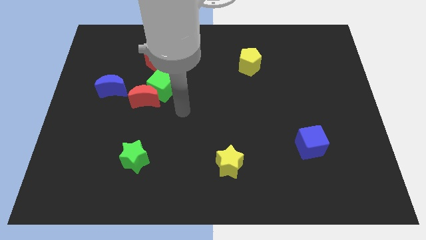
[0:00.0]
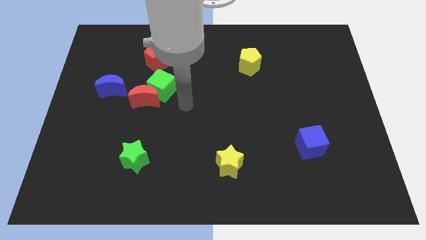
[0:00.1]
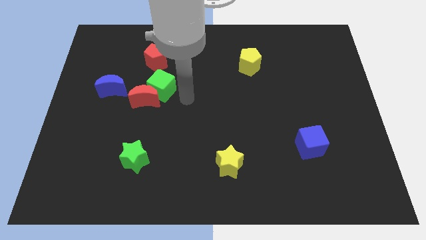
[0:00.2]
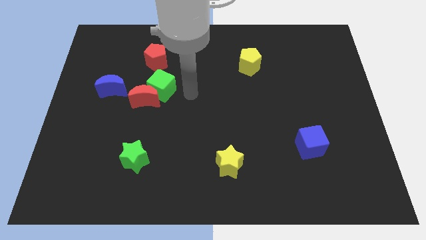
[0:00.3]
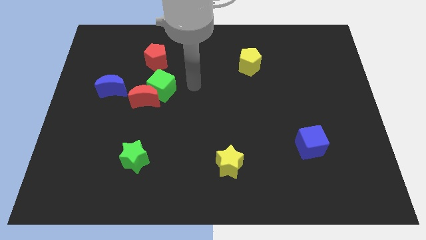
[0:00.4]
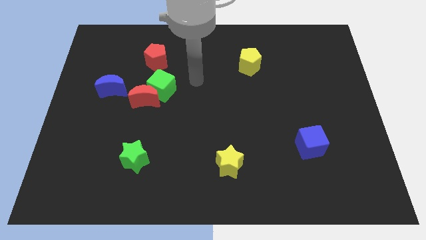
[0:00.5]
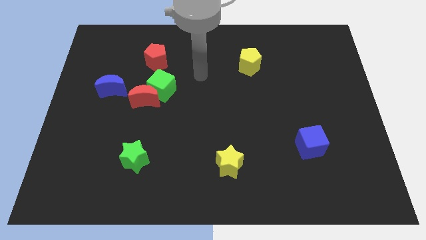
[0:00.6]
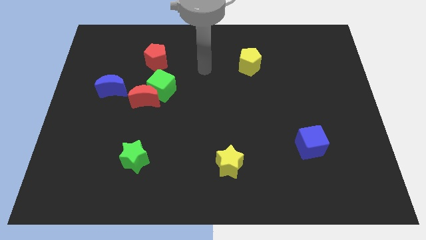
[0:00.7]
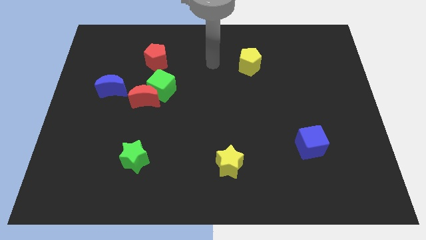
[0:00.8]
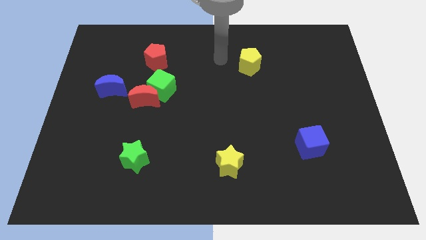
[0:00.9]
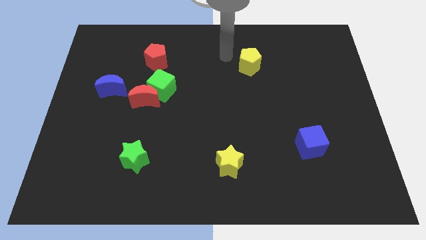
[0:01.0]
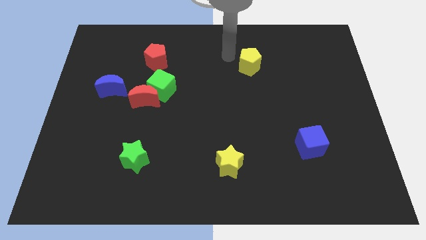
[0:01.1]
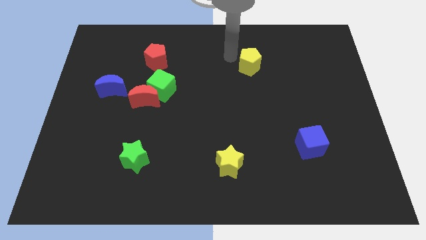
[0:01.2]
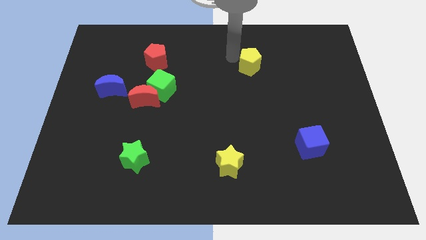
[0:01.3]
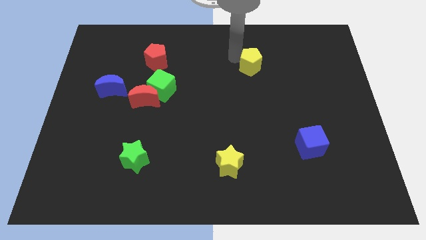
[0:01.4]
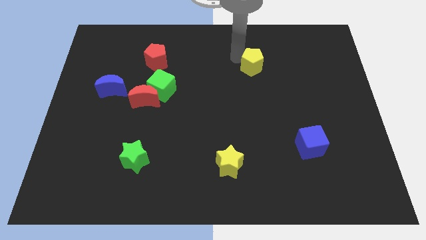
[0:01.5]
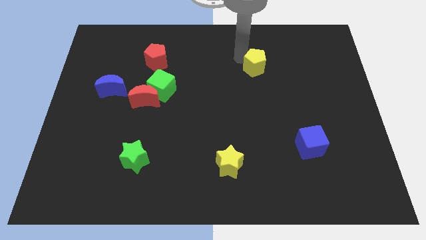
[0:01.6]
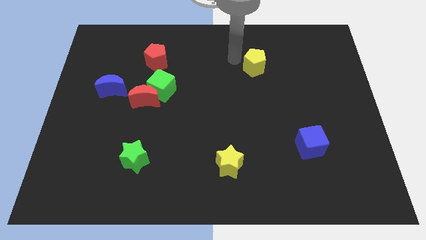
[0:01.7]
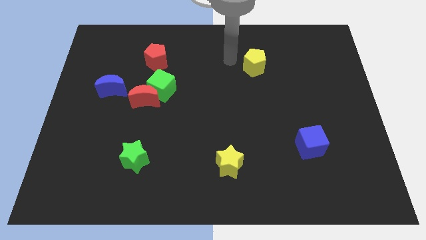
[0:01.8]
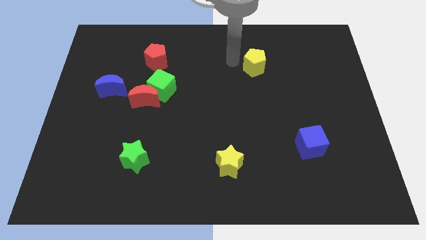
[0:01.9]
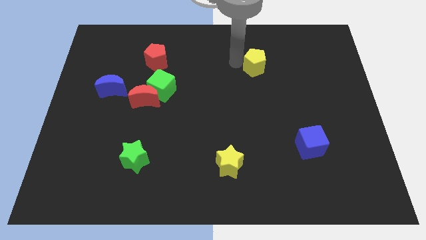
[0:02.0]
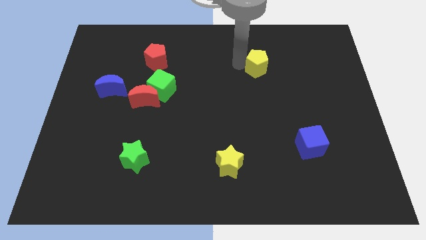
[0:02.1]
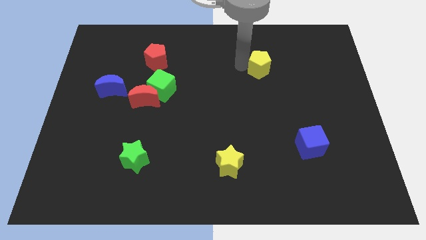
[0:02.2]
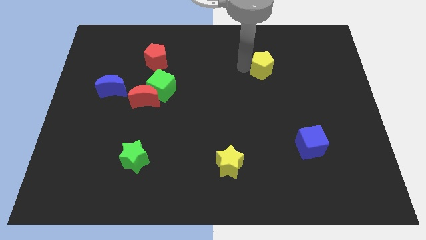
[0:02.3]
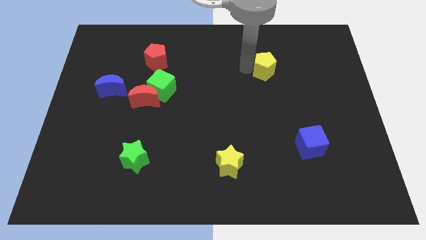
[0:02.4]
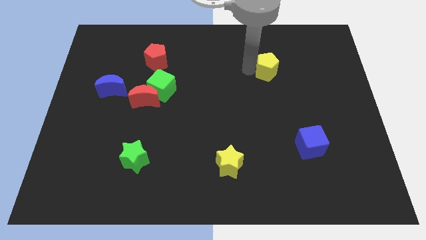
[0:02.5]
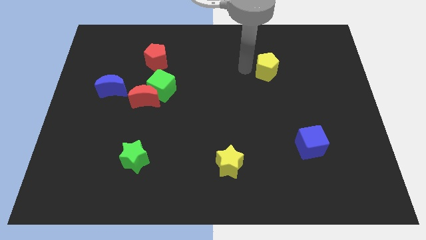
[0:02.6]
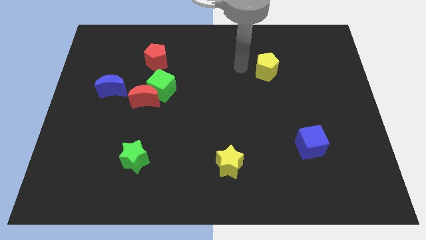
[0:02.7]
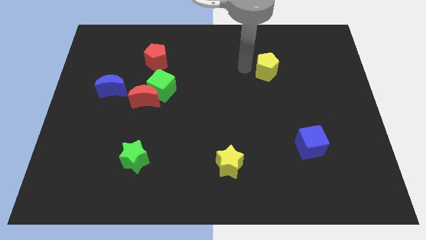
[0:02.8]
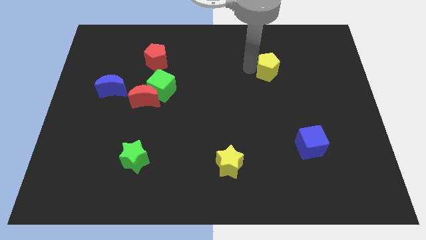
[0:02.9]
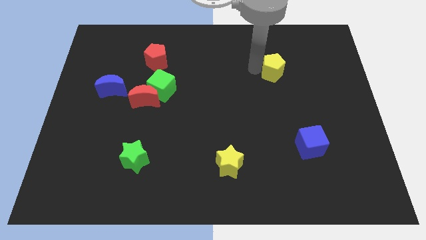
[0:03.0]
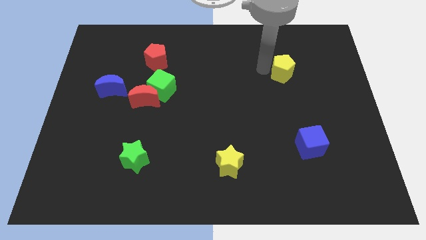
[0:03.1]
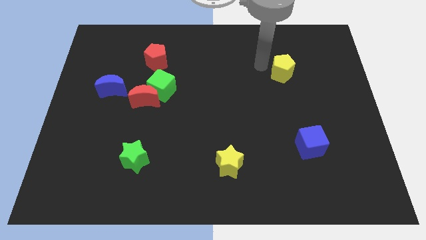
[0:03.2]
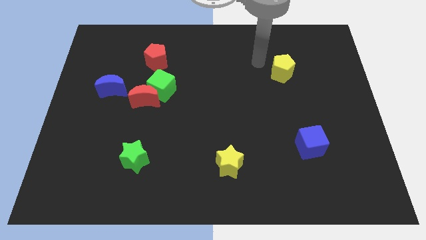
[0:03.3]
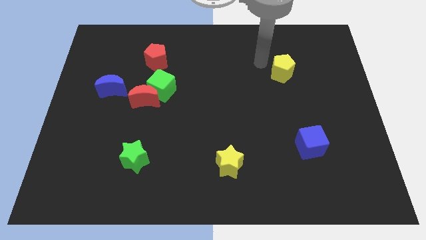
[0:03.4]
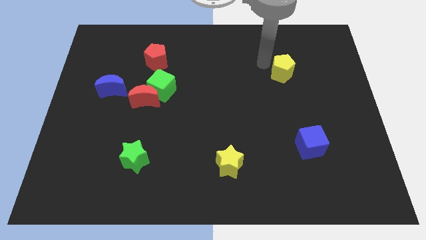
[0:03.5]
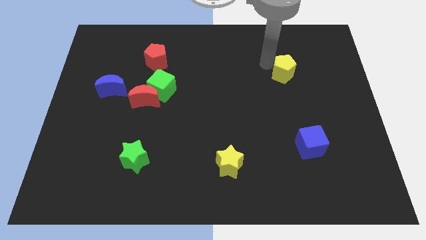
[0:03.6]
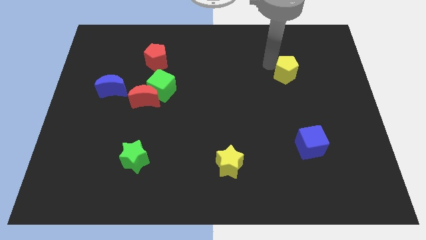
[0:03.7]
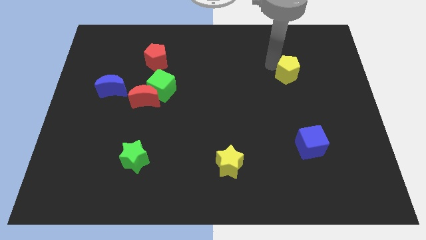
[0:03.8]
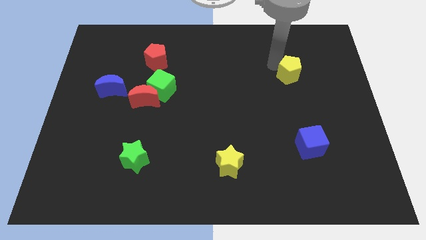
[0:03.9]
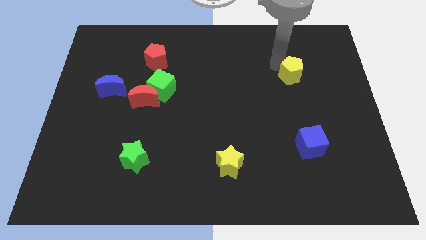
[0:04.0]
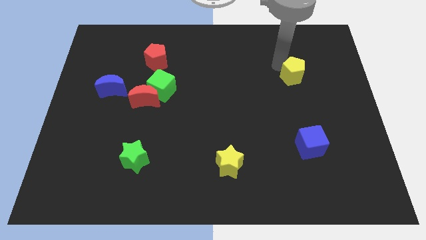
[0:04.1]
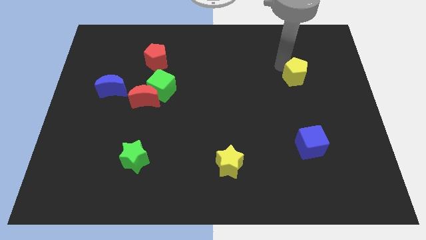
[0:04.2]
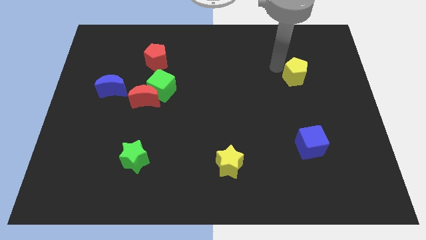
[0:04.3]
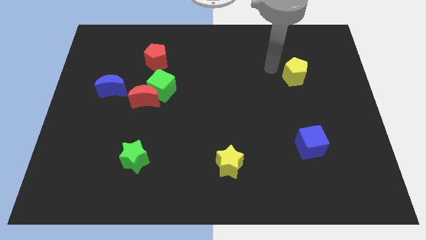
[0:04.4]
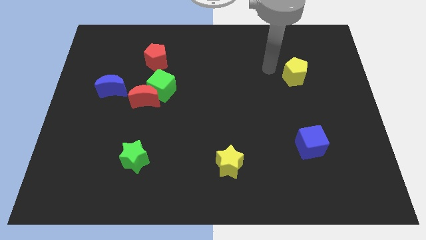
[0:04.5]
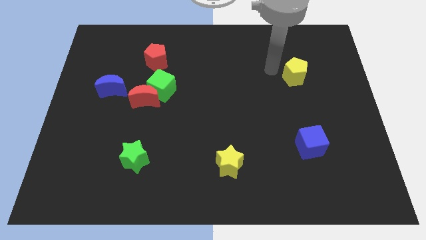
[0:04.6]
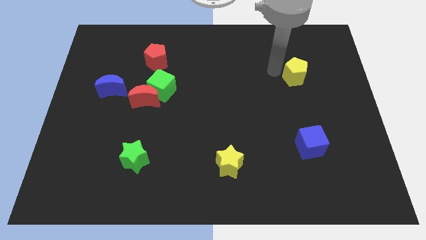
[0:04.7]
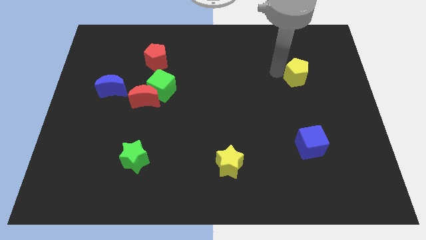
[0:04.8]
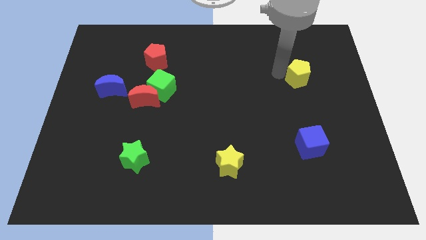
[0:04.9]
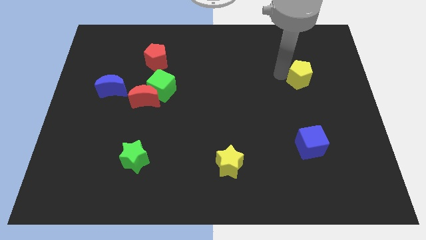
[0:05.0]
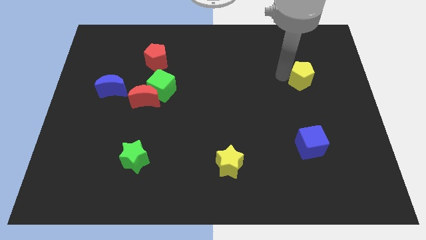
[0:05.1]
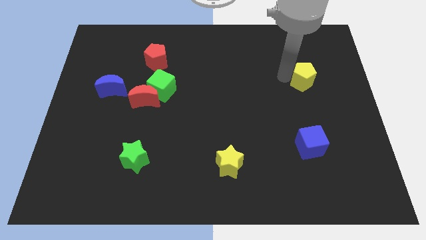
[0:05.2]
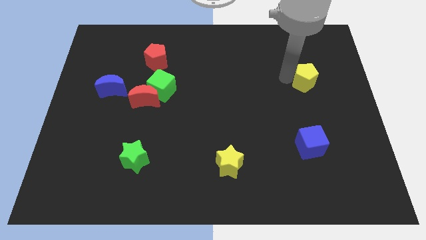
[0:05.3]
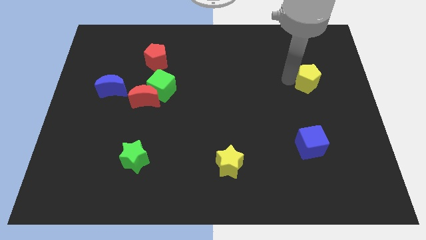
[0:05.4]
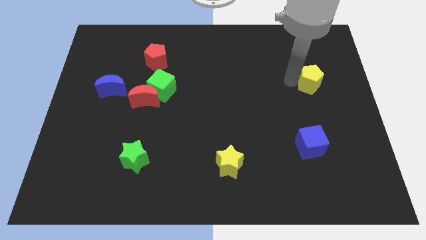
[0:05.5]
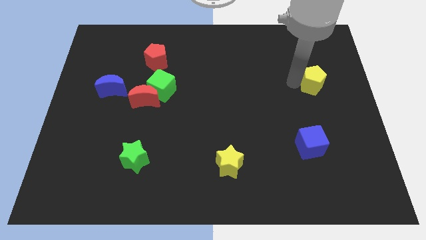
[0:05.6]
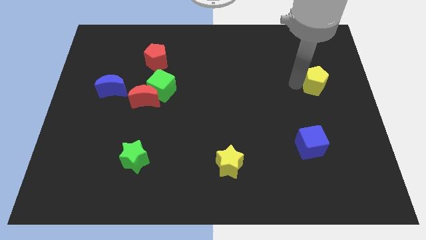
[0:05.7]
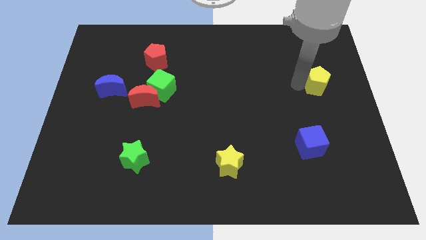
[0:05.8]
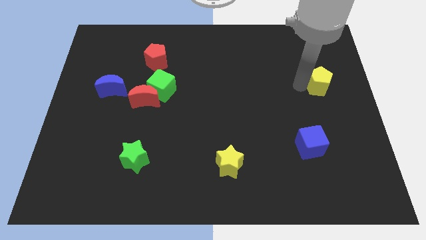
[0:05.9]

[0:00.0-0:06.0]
move the yellow pentagon to the center right

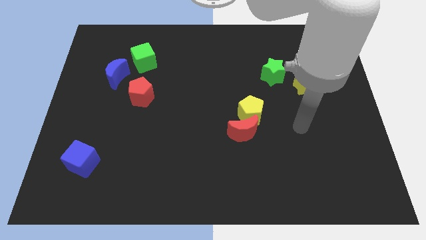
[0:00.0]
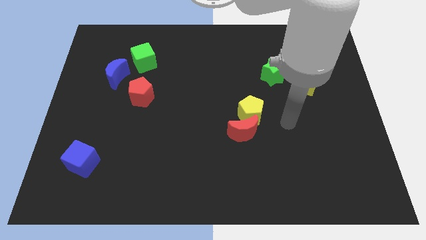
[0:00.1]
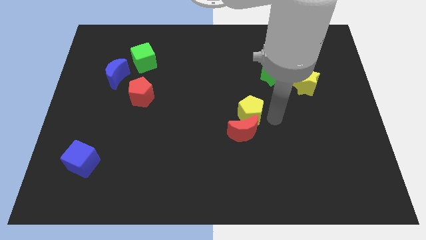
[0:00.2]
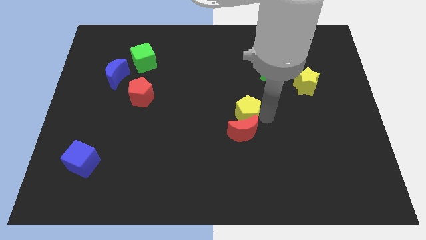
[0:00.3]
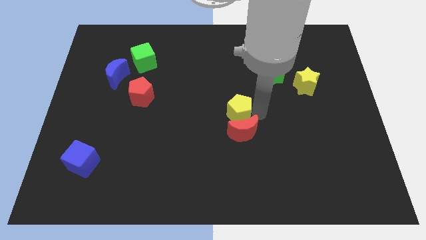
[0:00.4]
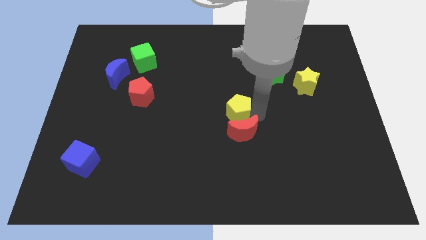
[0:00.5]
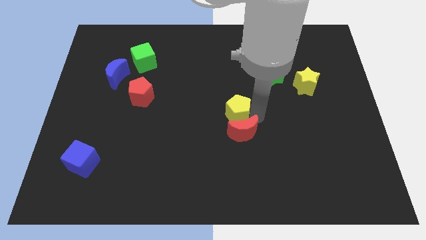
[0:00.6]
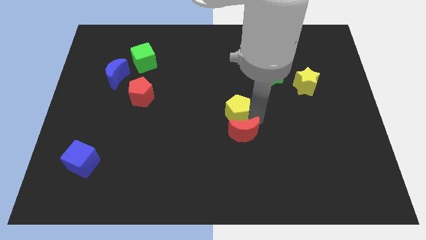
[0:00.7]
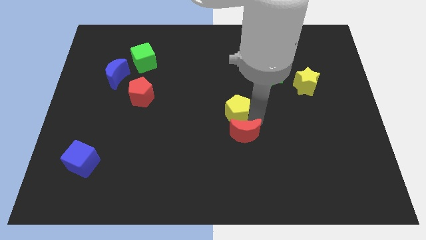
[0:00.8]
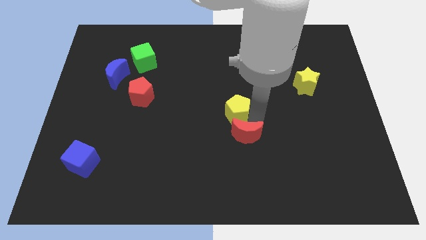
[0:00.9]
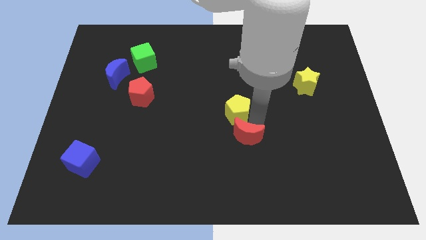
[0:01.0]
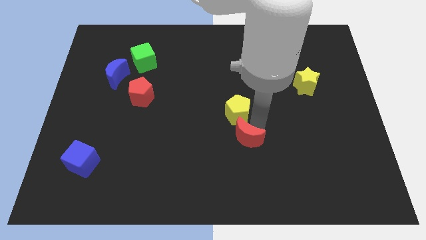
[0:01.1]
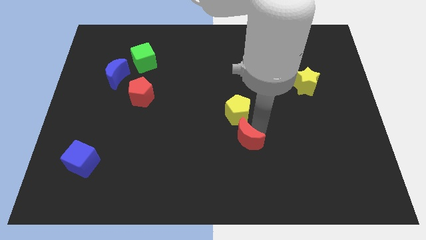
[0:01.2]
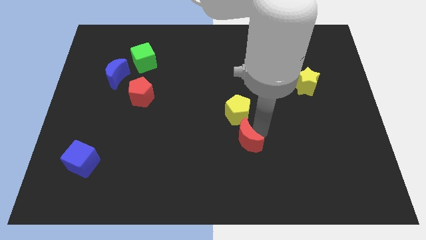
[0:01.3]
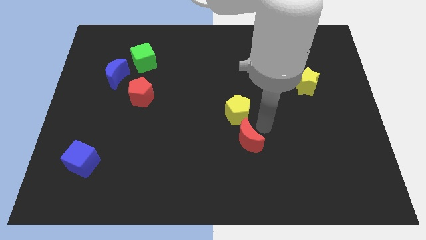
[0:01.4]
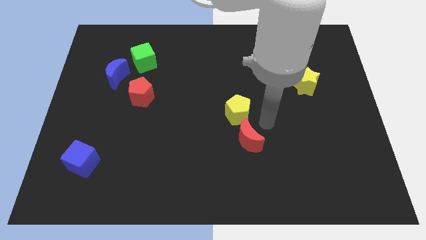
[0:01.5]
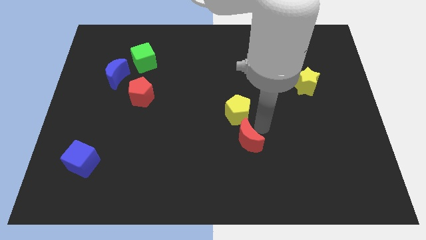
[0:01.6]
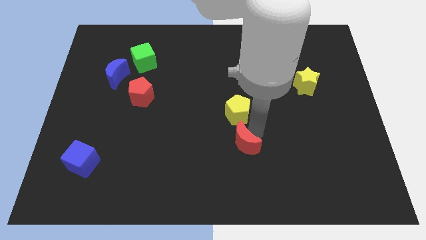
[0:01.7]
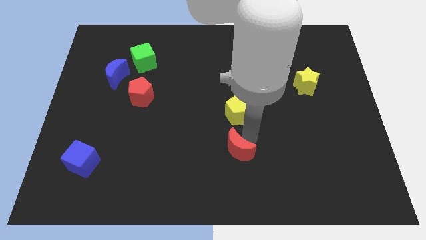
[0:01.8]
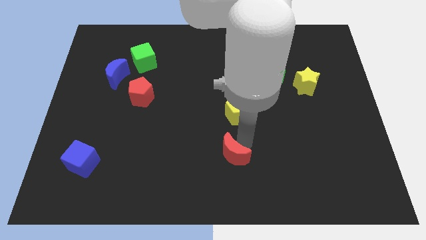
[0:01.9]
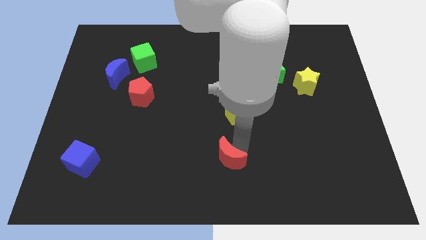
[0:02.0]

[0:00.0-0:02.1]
move the red moon to the bottom side
